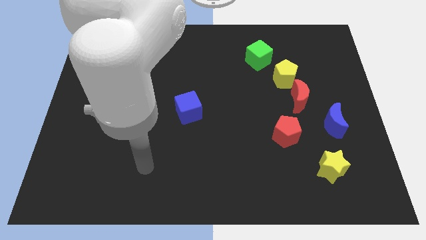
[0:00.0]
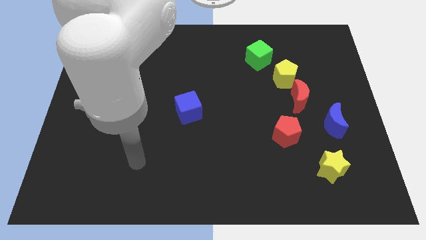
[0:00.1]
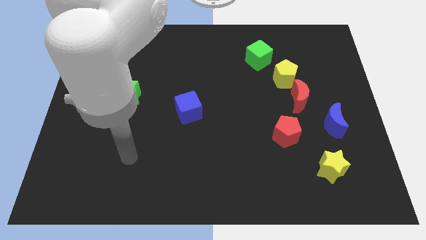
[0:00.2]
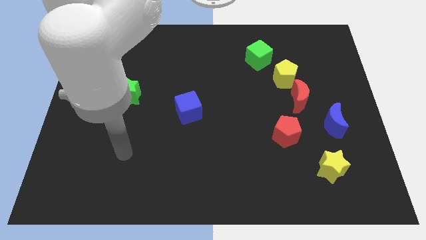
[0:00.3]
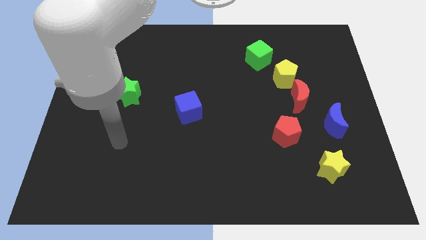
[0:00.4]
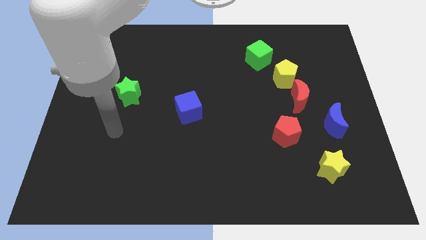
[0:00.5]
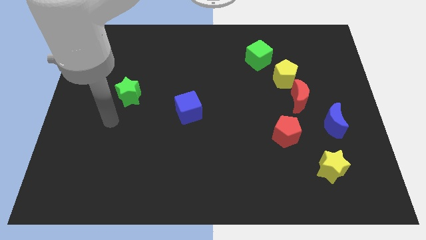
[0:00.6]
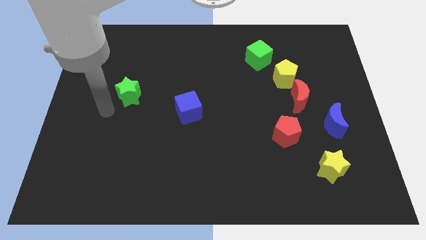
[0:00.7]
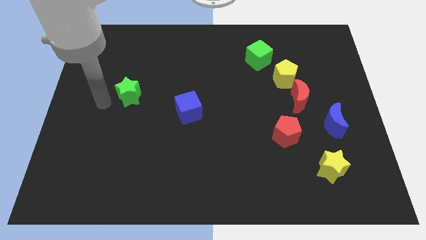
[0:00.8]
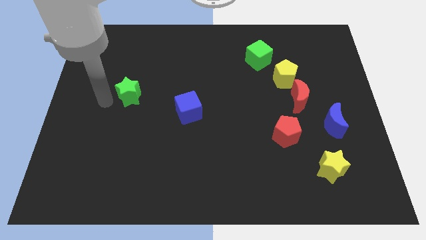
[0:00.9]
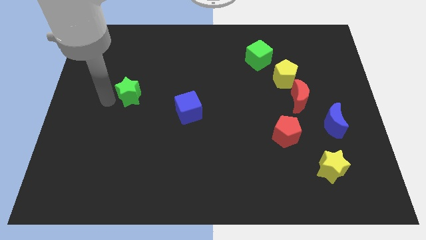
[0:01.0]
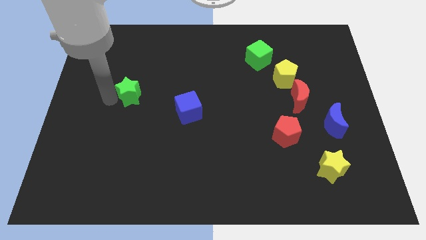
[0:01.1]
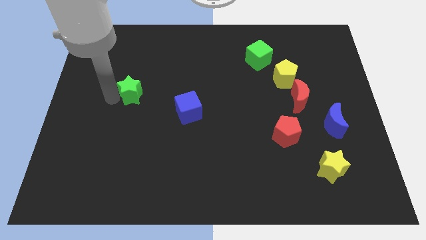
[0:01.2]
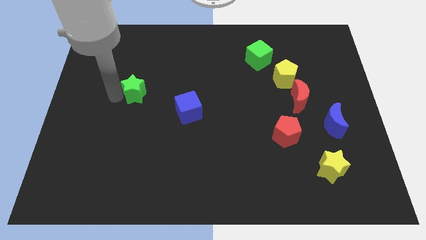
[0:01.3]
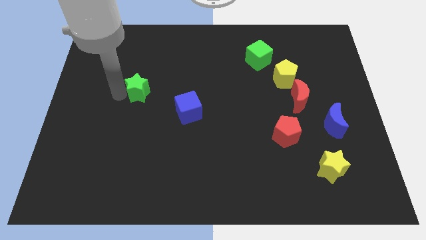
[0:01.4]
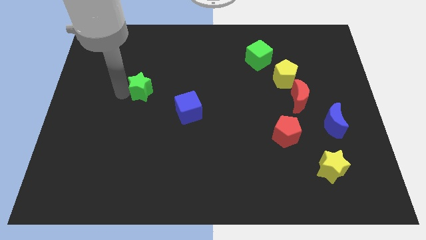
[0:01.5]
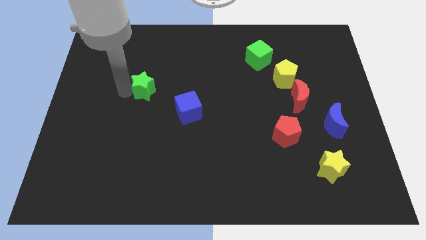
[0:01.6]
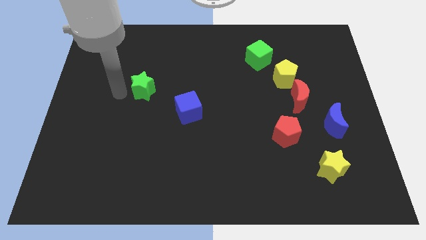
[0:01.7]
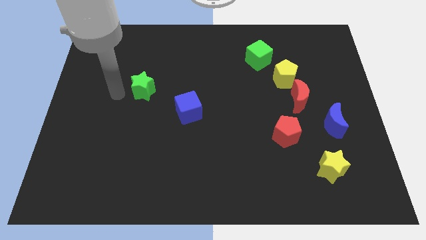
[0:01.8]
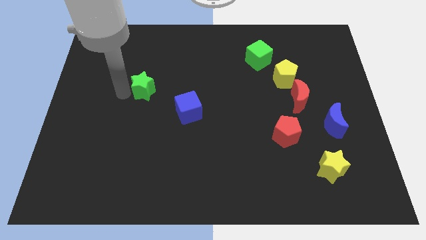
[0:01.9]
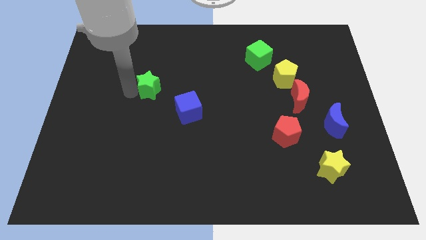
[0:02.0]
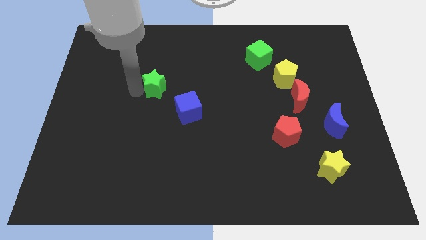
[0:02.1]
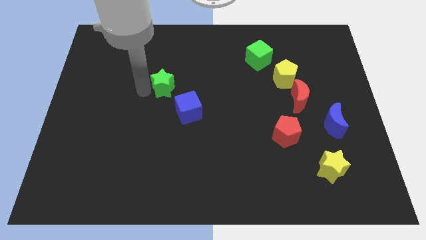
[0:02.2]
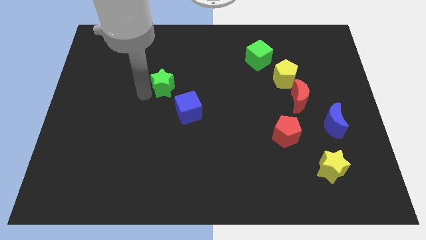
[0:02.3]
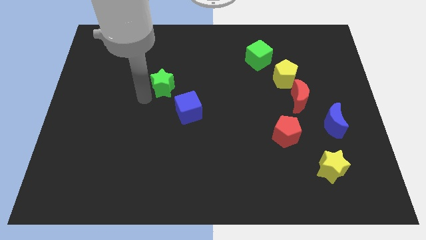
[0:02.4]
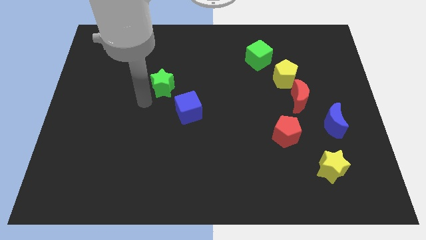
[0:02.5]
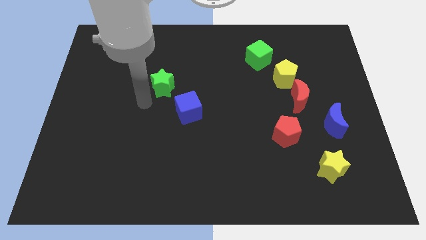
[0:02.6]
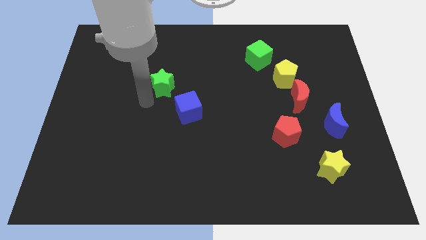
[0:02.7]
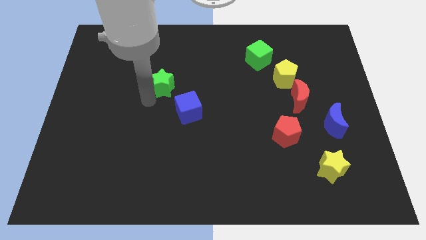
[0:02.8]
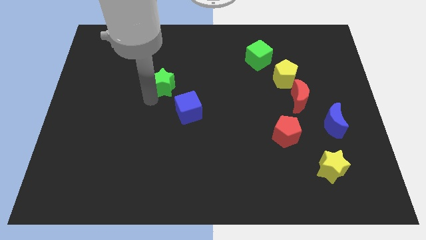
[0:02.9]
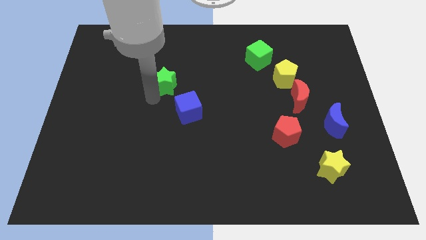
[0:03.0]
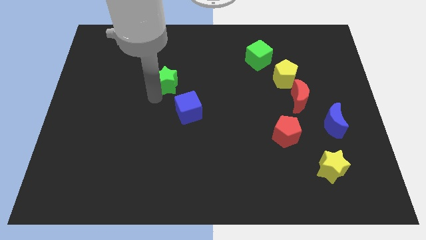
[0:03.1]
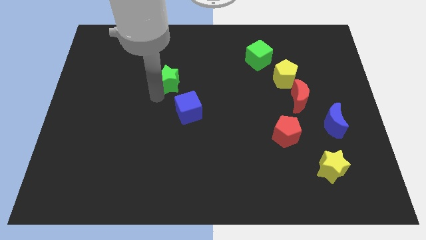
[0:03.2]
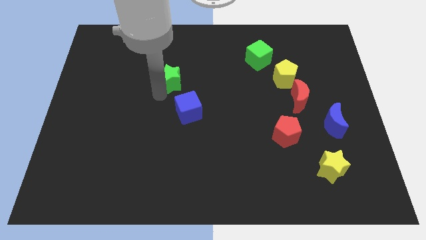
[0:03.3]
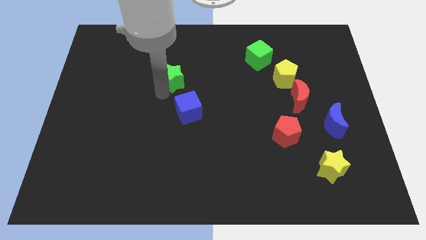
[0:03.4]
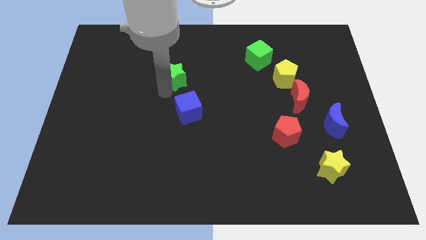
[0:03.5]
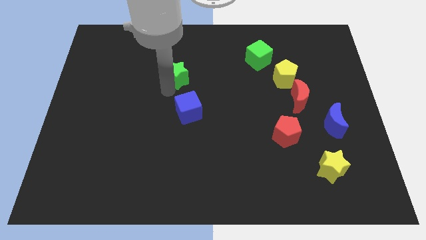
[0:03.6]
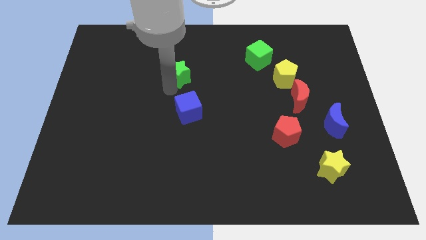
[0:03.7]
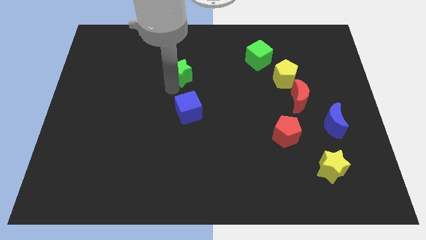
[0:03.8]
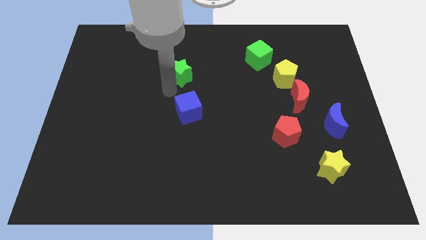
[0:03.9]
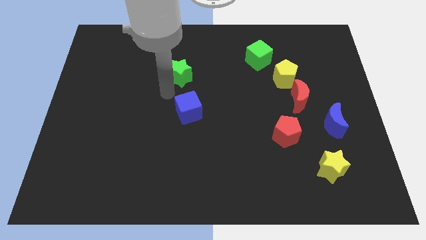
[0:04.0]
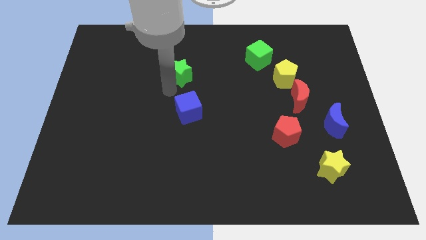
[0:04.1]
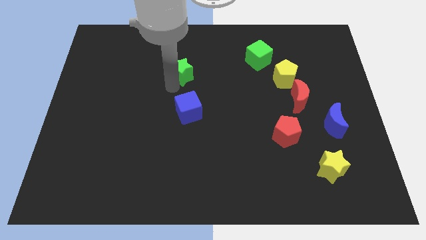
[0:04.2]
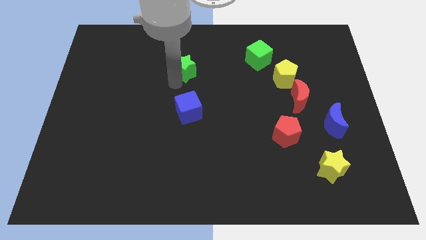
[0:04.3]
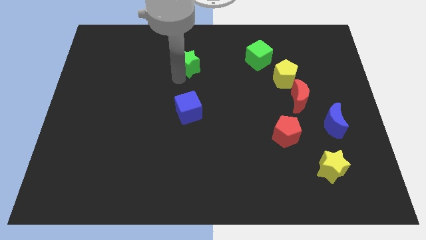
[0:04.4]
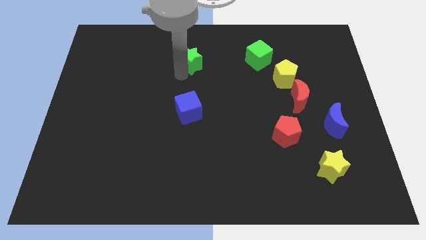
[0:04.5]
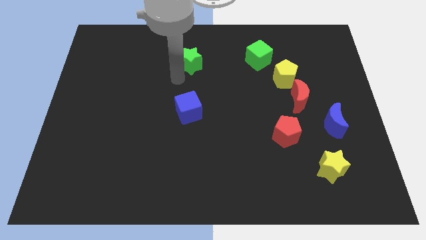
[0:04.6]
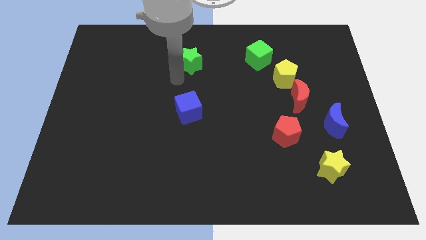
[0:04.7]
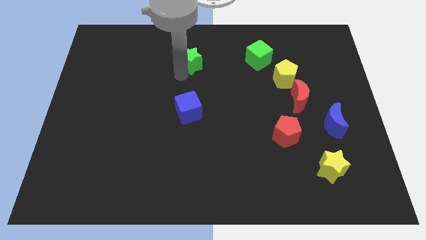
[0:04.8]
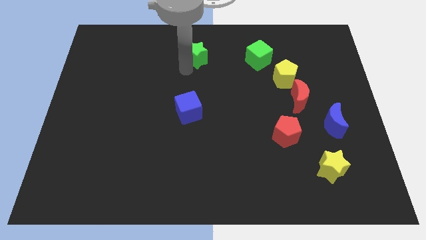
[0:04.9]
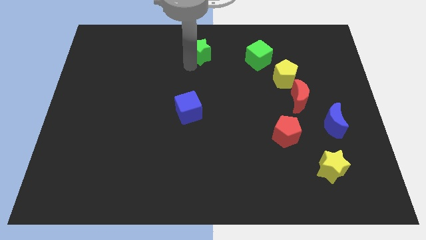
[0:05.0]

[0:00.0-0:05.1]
move the green star to the towards your base
